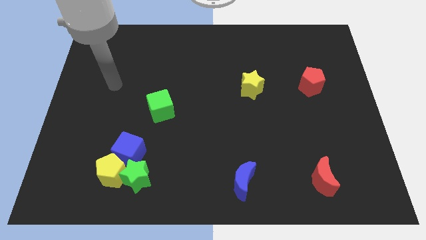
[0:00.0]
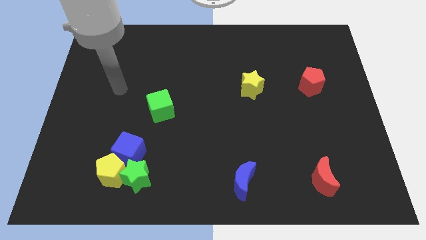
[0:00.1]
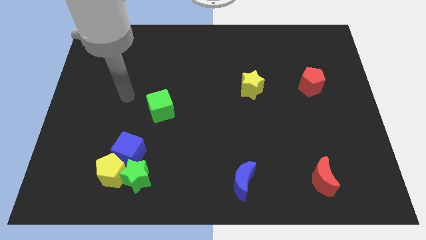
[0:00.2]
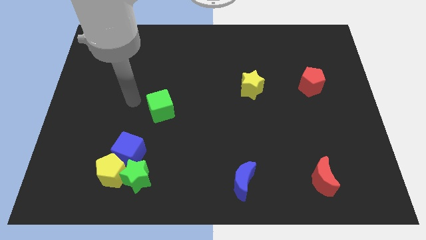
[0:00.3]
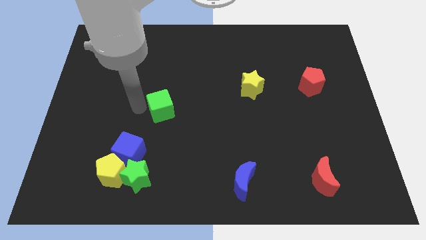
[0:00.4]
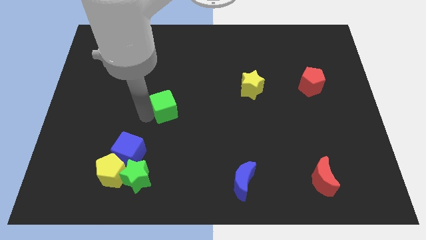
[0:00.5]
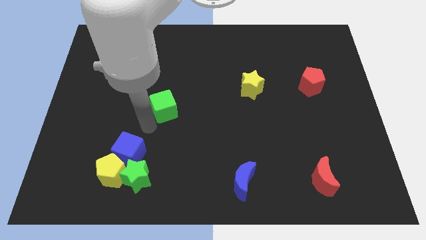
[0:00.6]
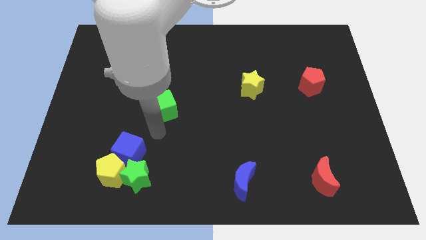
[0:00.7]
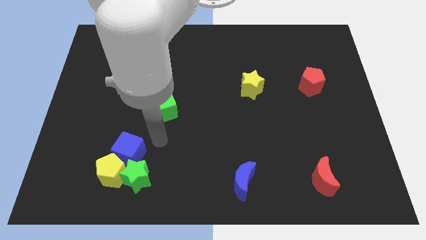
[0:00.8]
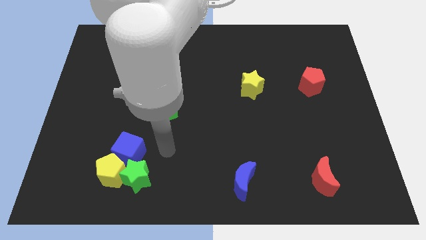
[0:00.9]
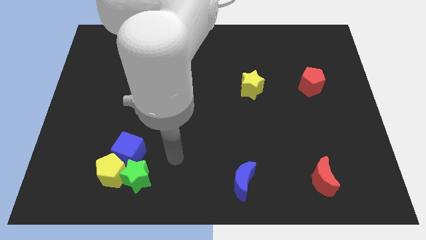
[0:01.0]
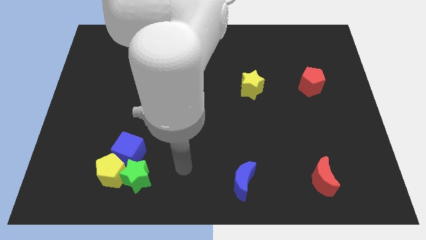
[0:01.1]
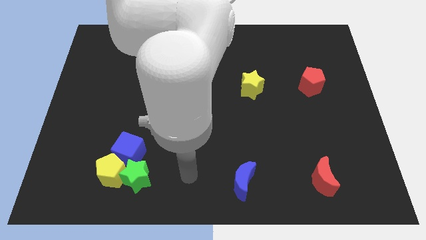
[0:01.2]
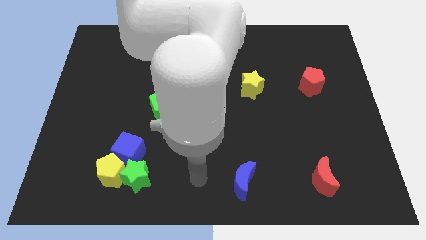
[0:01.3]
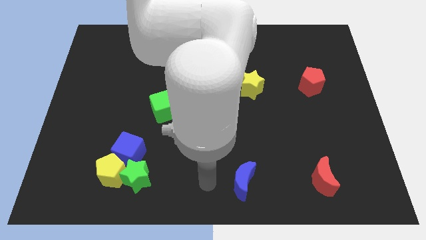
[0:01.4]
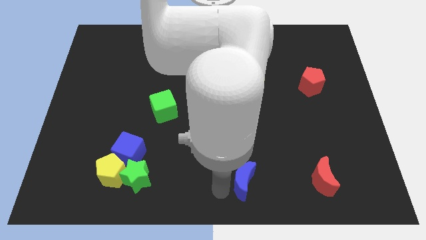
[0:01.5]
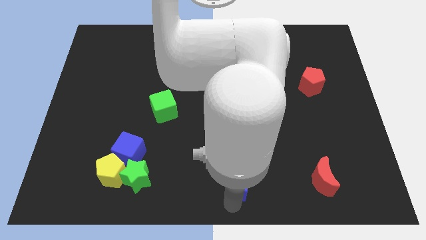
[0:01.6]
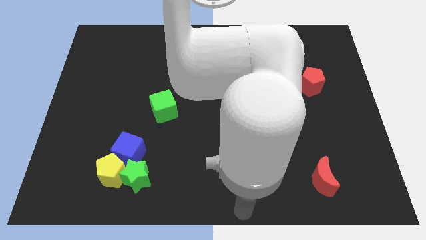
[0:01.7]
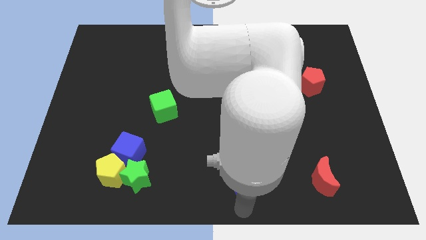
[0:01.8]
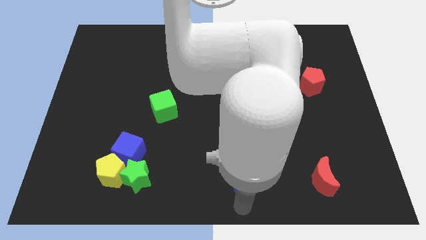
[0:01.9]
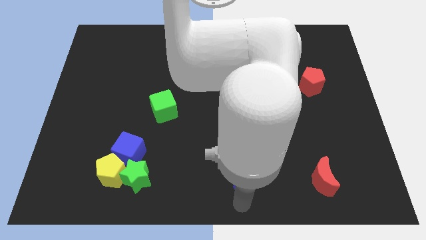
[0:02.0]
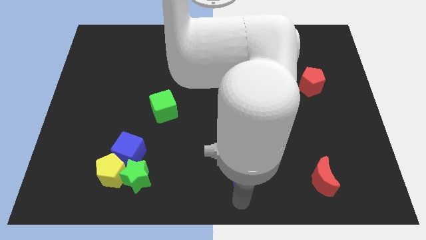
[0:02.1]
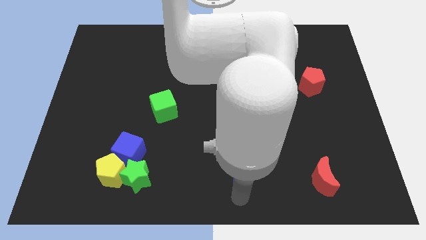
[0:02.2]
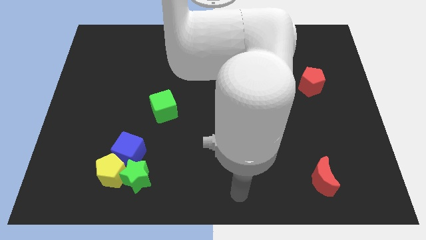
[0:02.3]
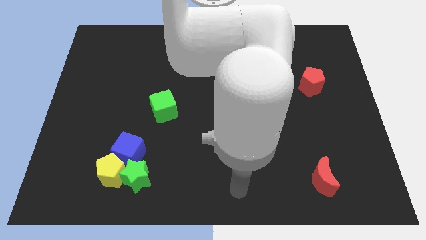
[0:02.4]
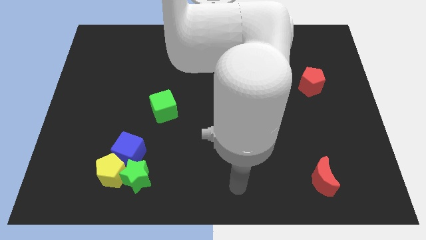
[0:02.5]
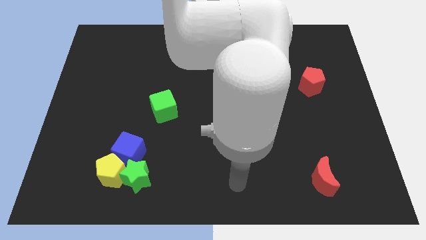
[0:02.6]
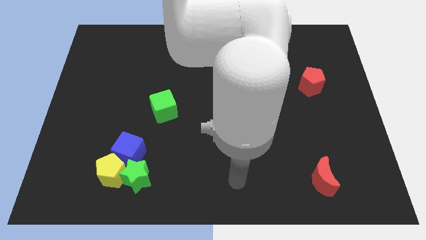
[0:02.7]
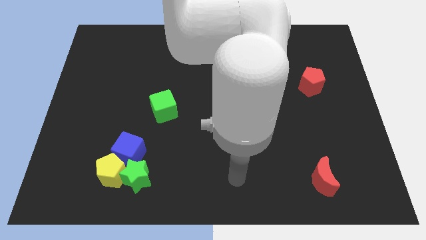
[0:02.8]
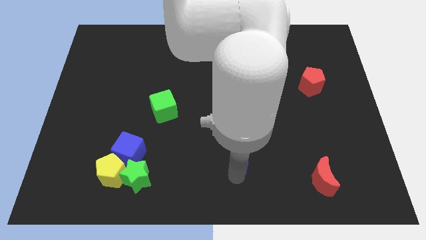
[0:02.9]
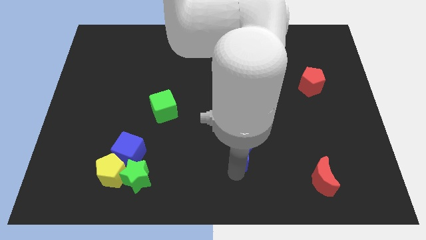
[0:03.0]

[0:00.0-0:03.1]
push the blue moon up somewhat

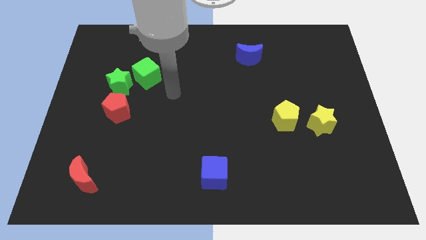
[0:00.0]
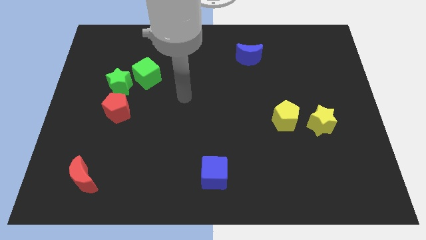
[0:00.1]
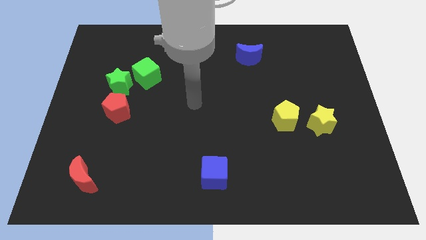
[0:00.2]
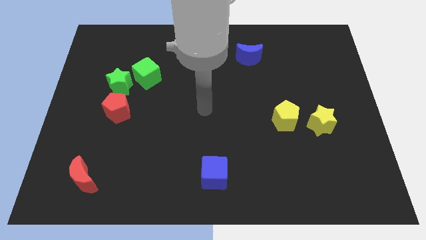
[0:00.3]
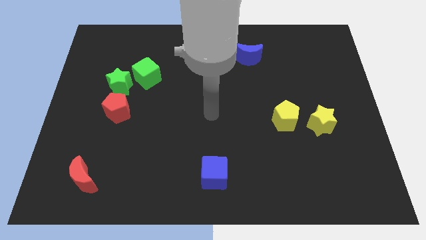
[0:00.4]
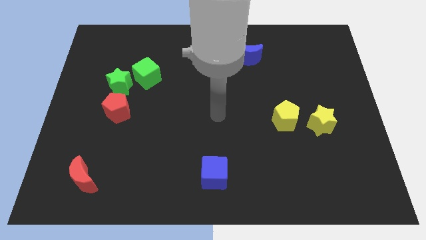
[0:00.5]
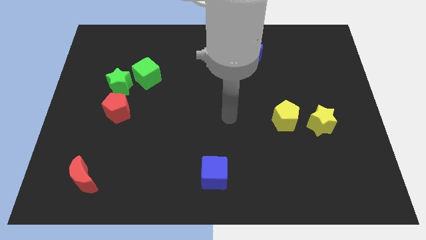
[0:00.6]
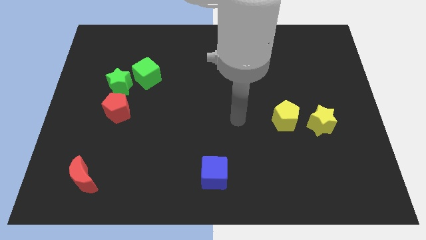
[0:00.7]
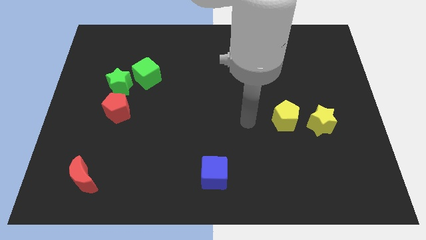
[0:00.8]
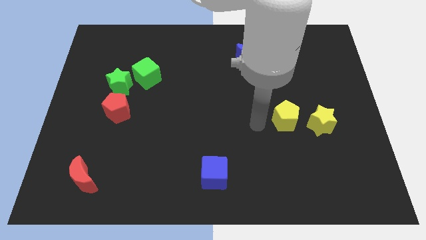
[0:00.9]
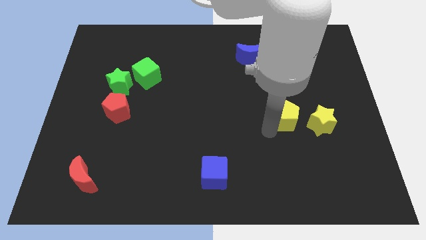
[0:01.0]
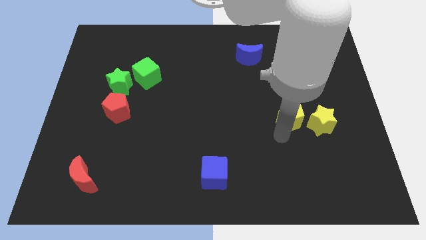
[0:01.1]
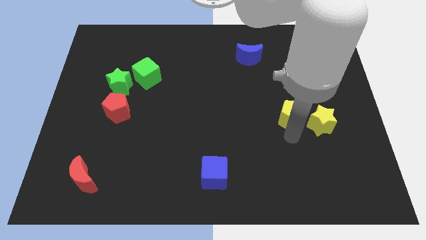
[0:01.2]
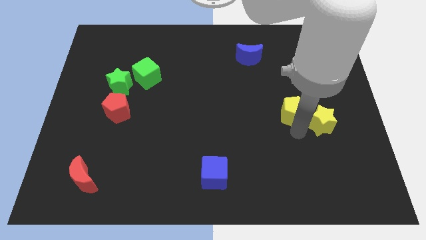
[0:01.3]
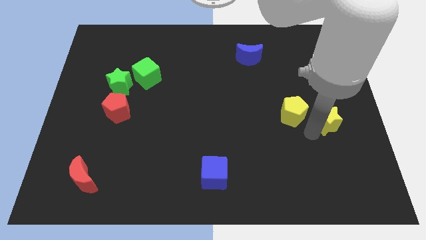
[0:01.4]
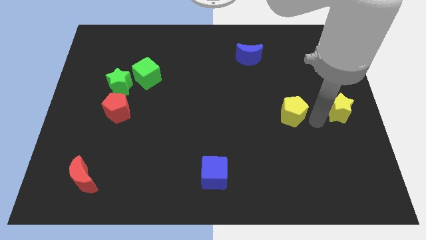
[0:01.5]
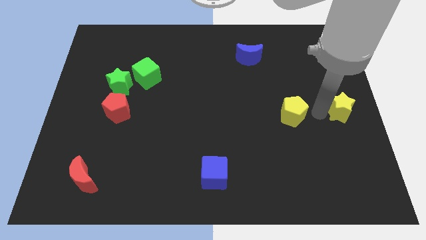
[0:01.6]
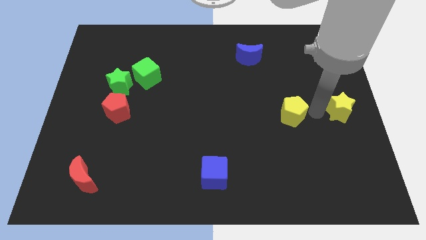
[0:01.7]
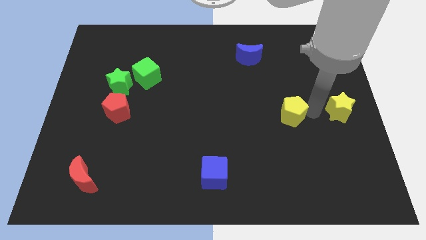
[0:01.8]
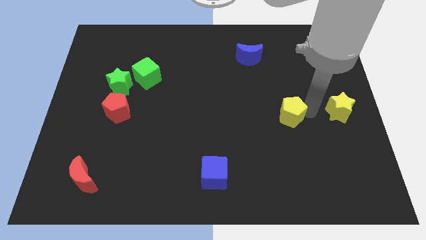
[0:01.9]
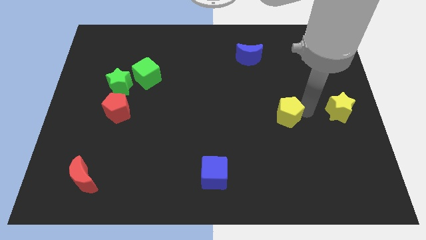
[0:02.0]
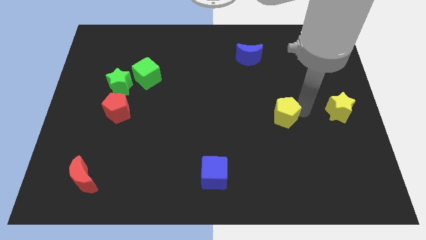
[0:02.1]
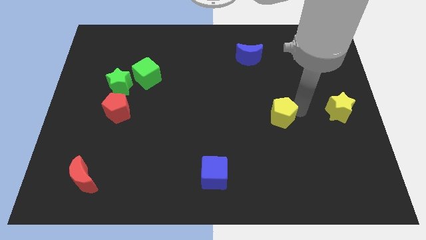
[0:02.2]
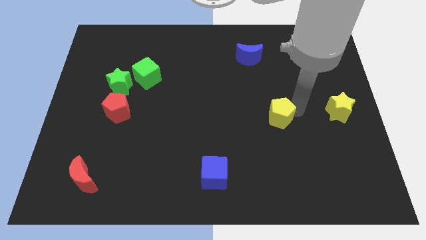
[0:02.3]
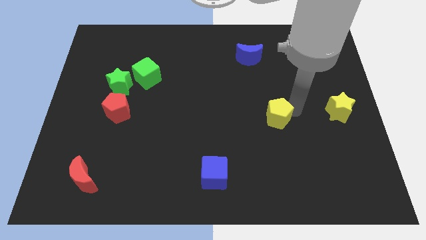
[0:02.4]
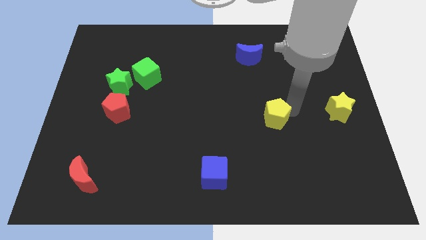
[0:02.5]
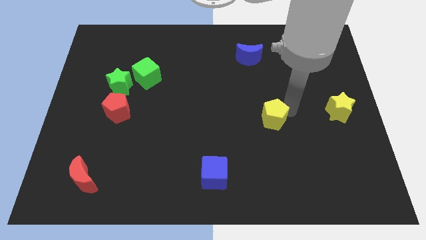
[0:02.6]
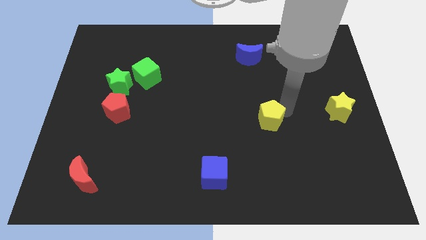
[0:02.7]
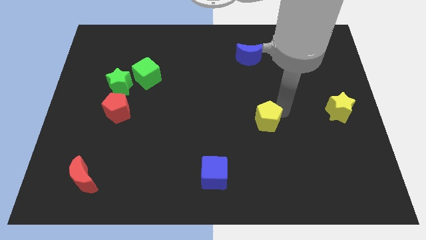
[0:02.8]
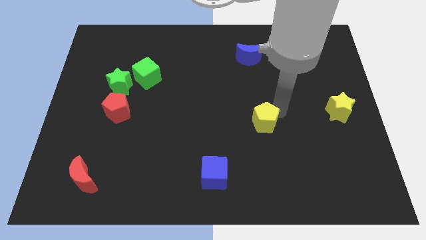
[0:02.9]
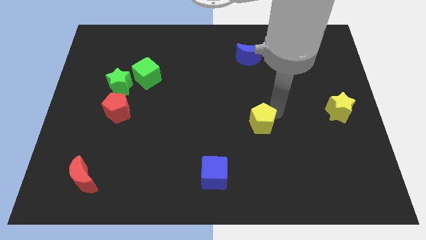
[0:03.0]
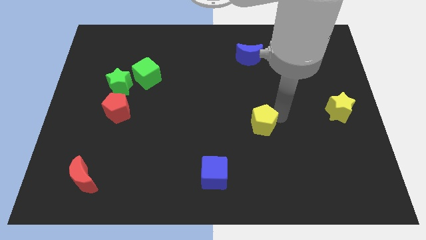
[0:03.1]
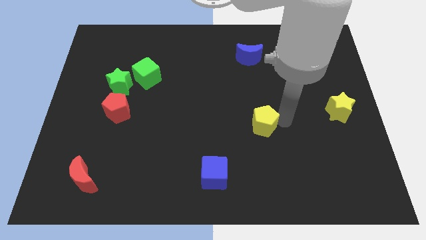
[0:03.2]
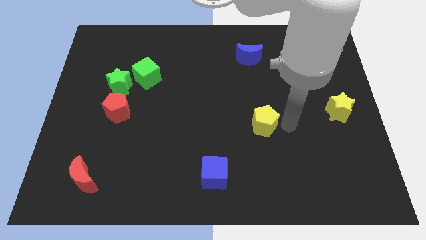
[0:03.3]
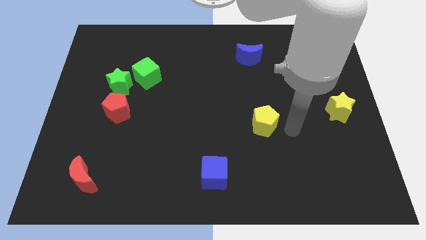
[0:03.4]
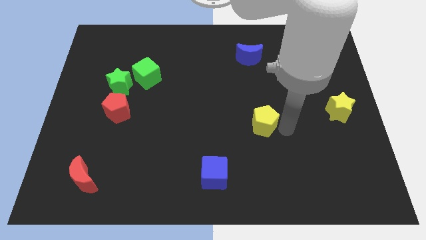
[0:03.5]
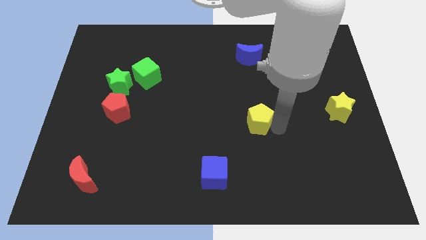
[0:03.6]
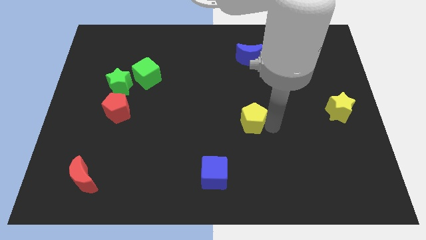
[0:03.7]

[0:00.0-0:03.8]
slightly push the yellow pentagon to the left

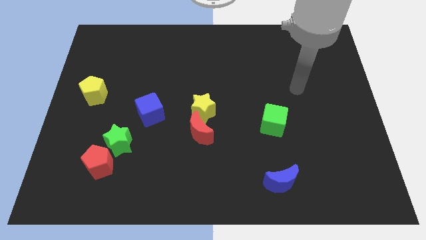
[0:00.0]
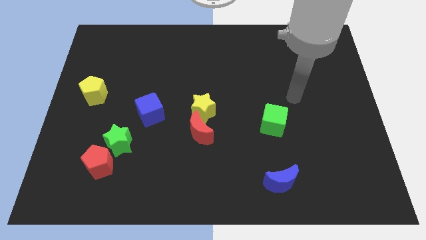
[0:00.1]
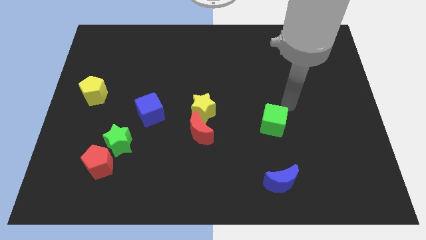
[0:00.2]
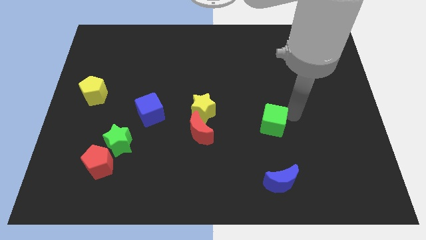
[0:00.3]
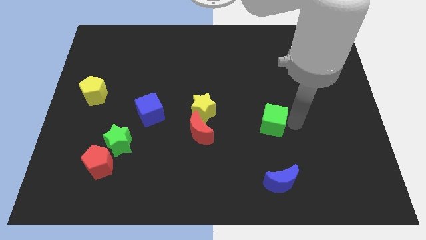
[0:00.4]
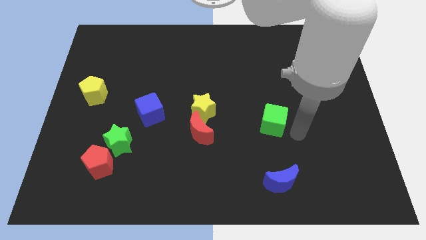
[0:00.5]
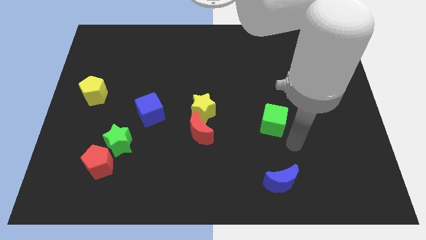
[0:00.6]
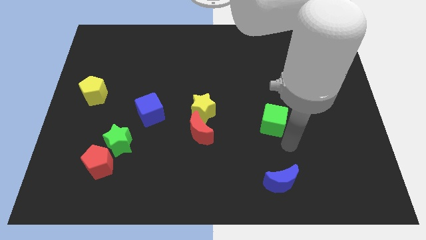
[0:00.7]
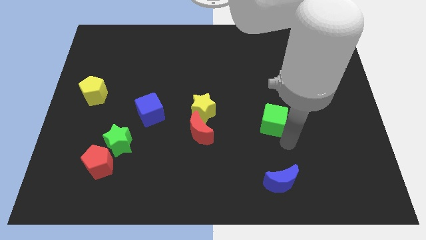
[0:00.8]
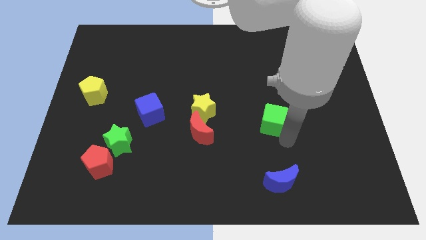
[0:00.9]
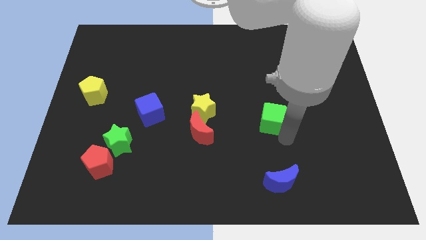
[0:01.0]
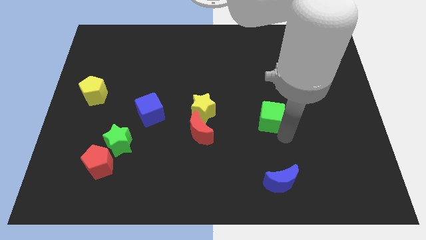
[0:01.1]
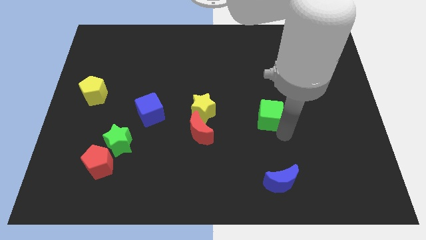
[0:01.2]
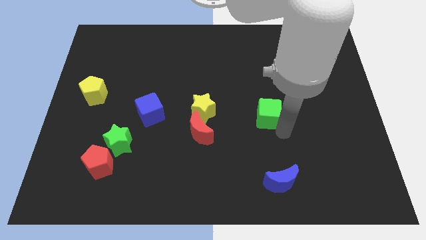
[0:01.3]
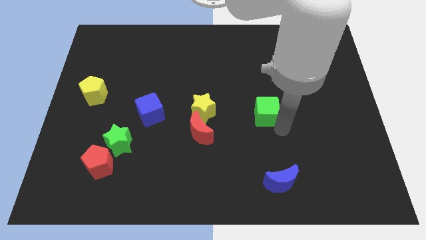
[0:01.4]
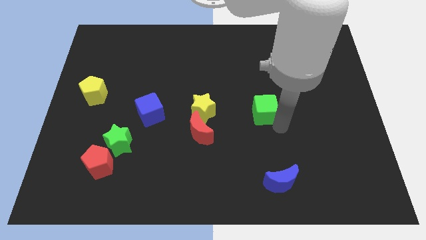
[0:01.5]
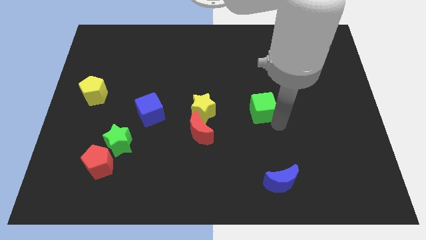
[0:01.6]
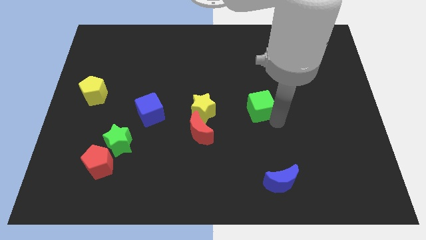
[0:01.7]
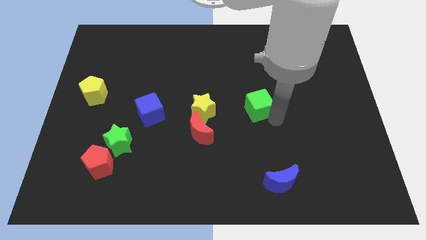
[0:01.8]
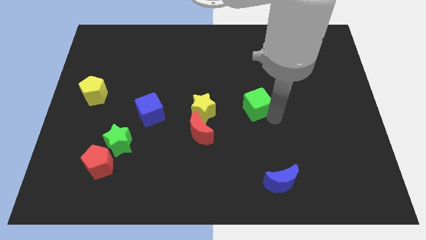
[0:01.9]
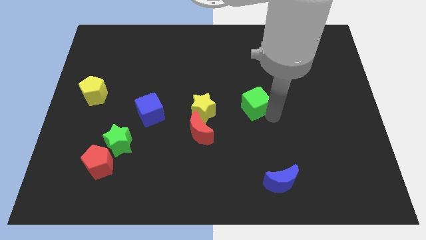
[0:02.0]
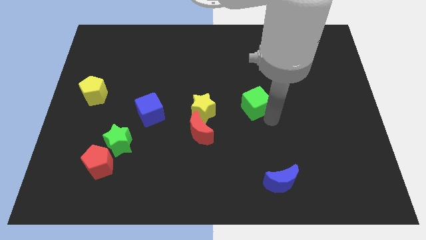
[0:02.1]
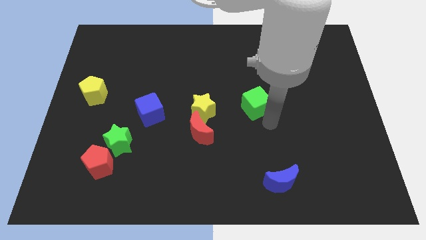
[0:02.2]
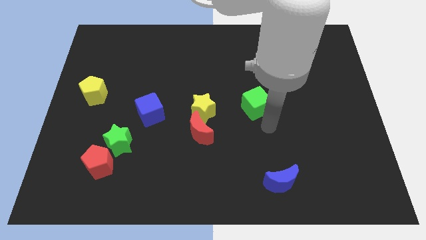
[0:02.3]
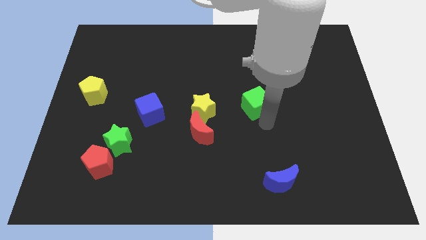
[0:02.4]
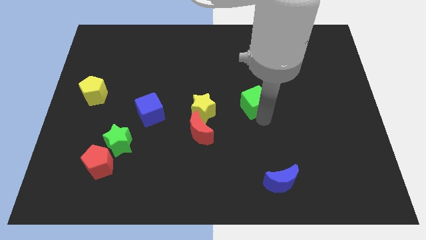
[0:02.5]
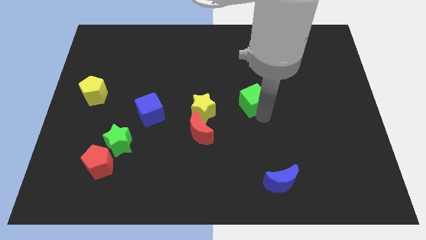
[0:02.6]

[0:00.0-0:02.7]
slide the green cube somewhat upwards and then left
